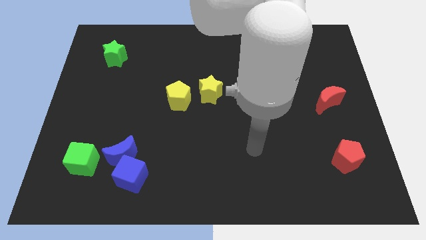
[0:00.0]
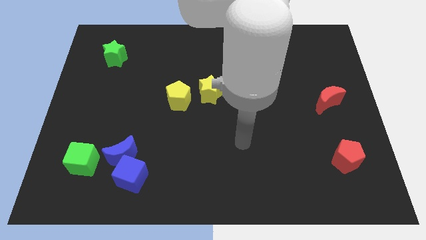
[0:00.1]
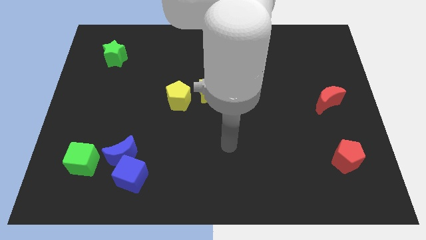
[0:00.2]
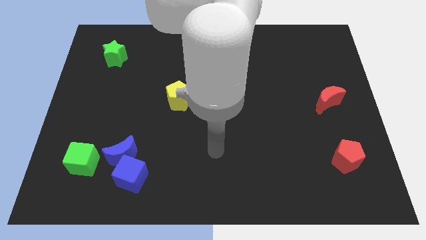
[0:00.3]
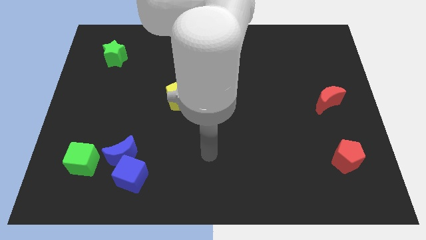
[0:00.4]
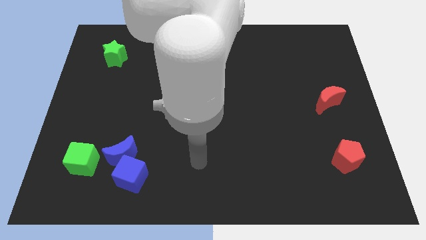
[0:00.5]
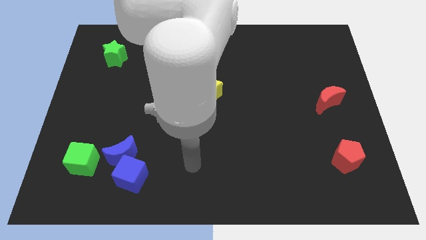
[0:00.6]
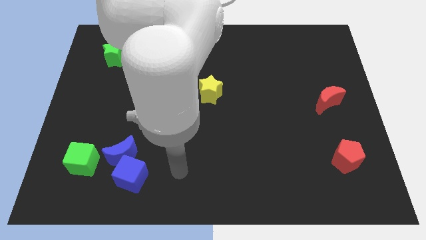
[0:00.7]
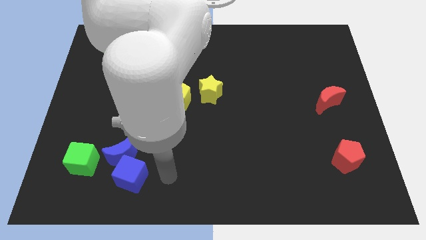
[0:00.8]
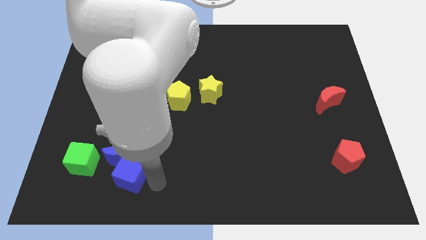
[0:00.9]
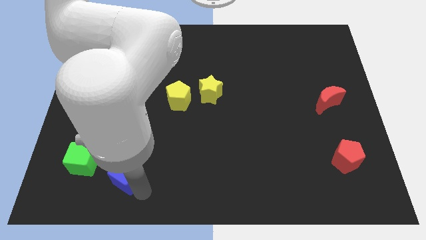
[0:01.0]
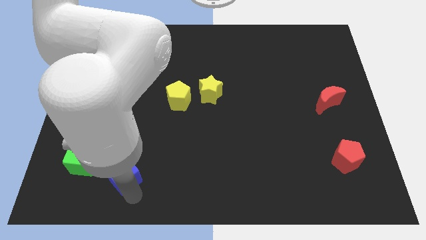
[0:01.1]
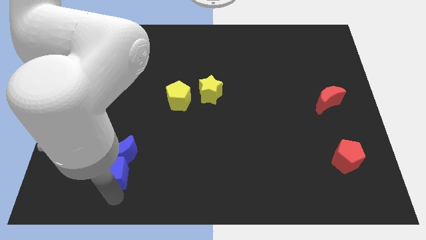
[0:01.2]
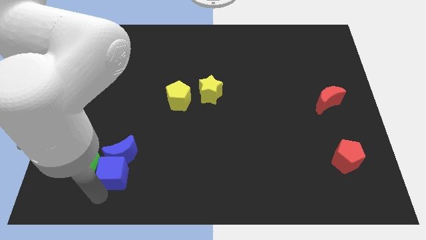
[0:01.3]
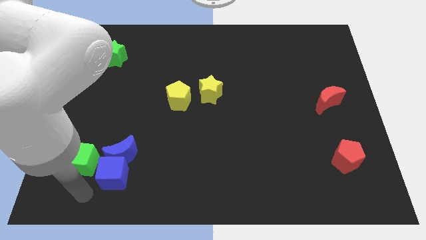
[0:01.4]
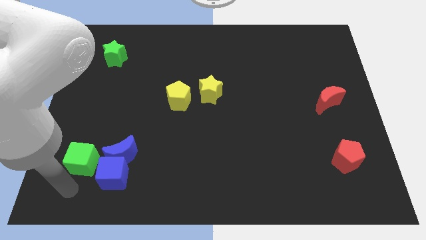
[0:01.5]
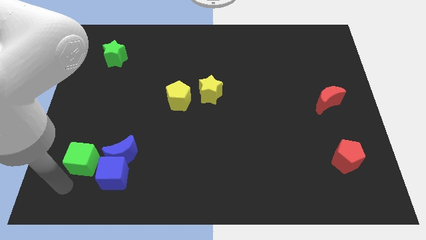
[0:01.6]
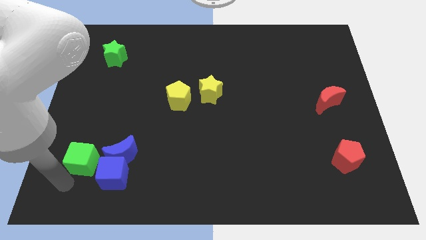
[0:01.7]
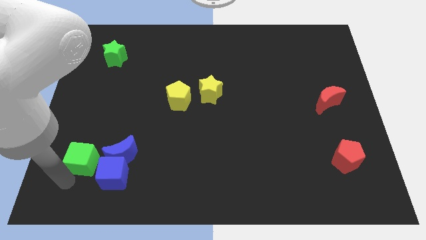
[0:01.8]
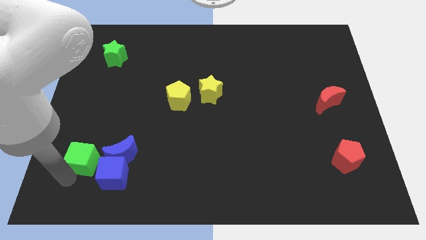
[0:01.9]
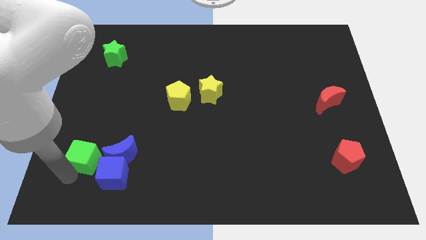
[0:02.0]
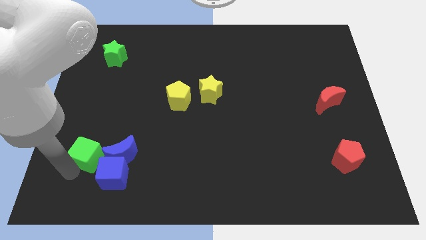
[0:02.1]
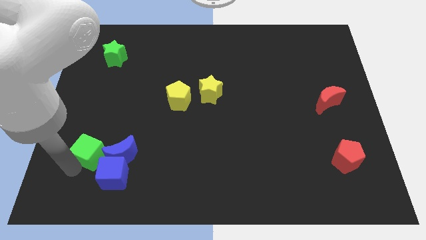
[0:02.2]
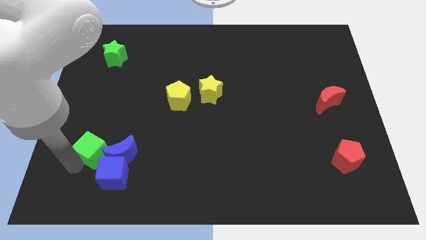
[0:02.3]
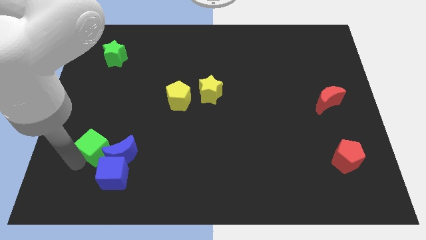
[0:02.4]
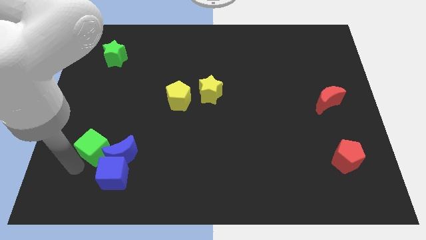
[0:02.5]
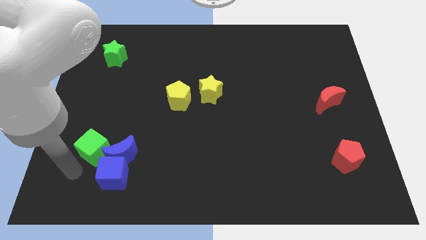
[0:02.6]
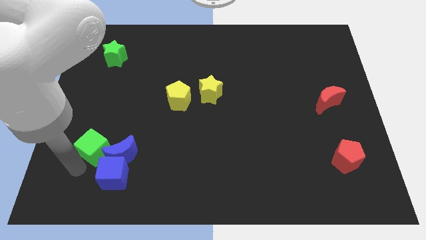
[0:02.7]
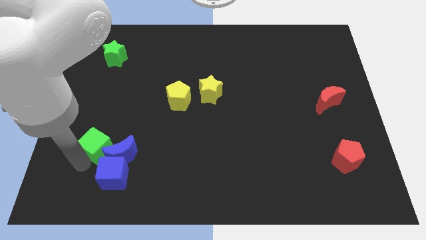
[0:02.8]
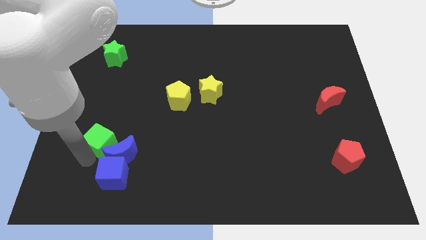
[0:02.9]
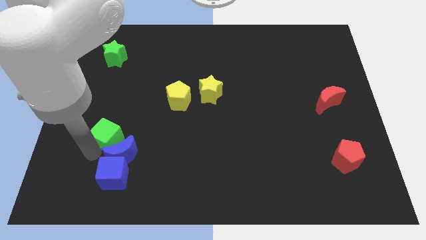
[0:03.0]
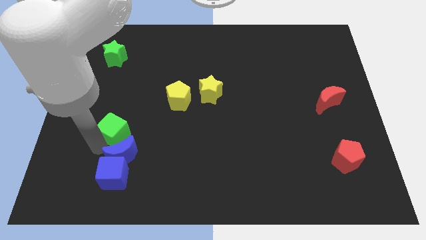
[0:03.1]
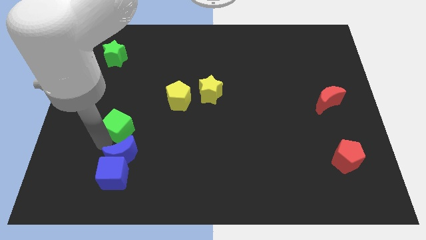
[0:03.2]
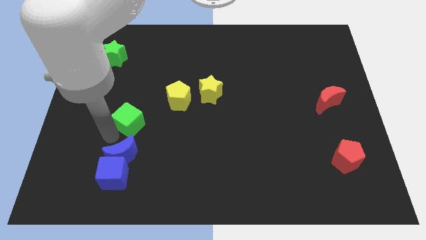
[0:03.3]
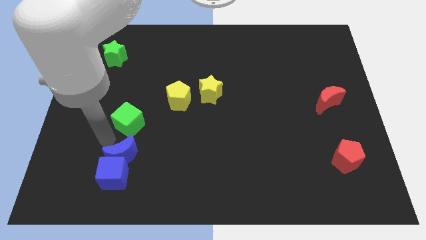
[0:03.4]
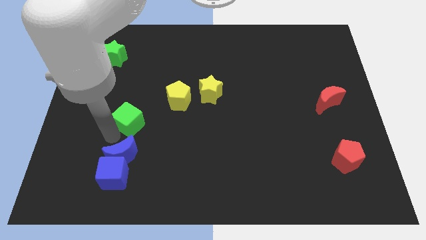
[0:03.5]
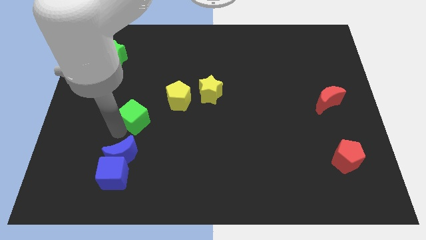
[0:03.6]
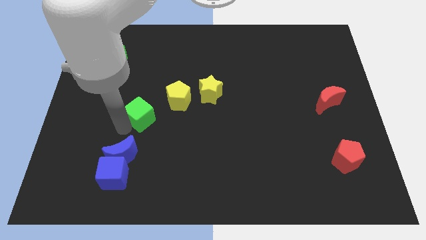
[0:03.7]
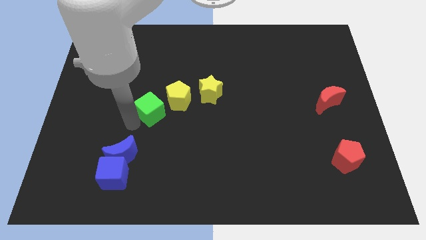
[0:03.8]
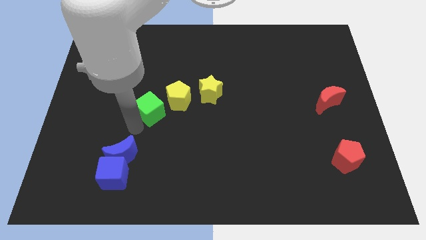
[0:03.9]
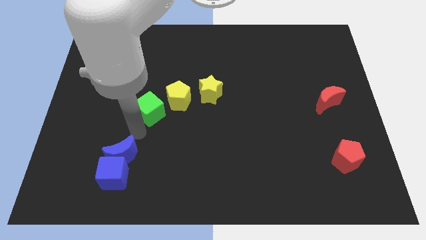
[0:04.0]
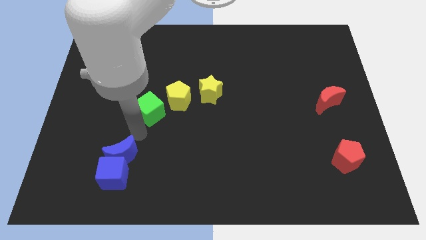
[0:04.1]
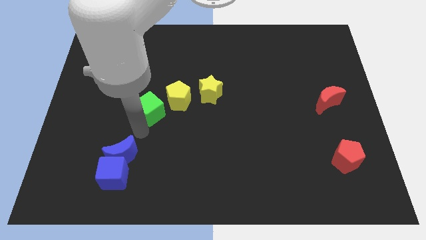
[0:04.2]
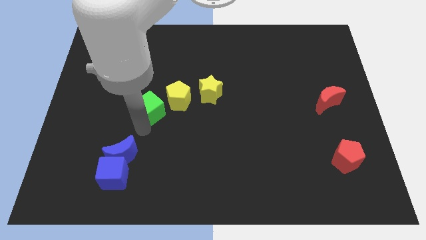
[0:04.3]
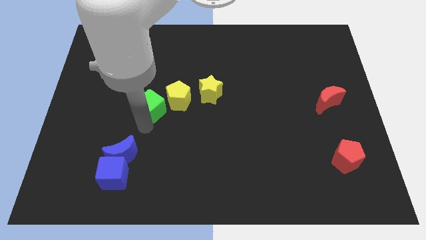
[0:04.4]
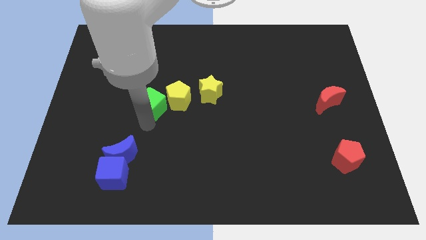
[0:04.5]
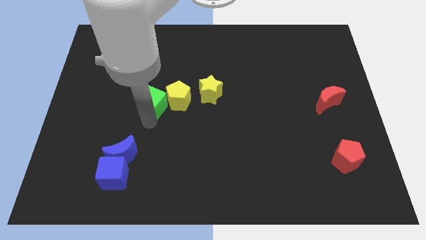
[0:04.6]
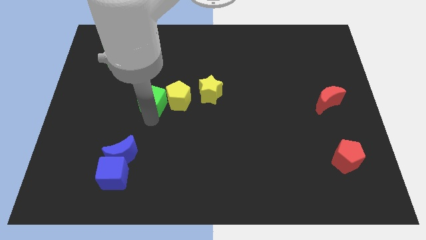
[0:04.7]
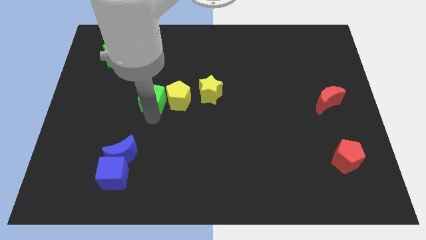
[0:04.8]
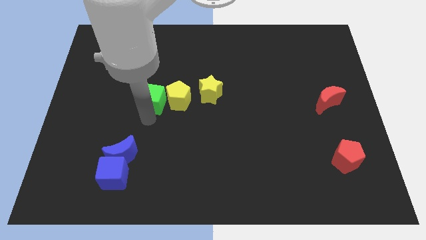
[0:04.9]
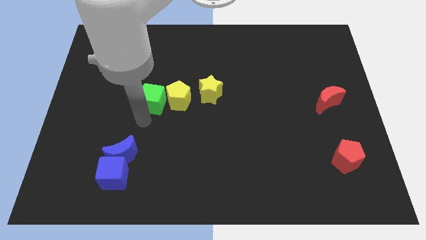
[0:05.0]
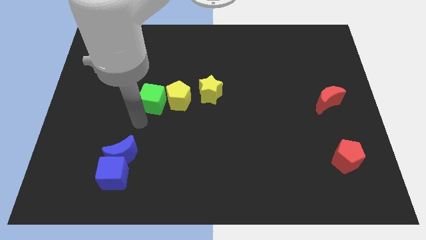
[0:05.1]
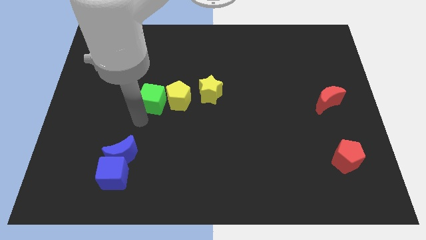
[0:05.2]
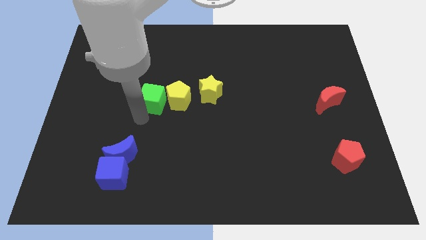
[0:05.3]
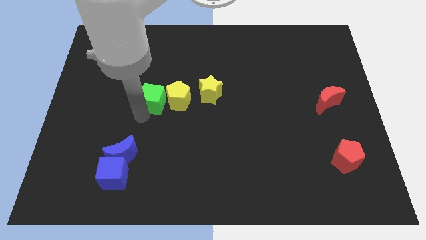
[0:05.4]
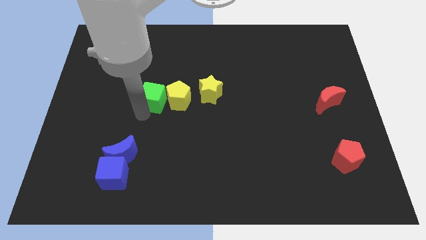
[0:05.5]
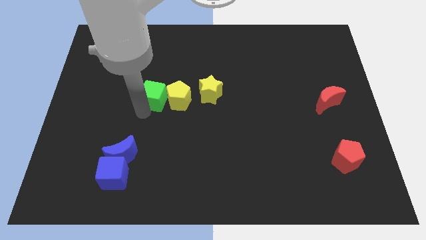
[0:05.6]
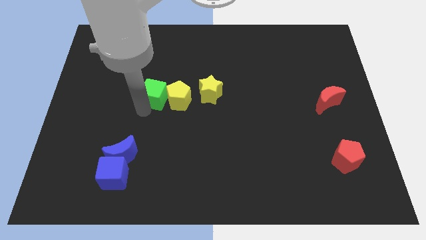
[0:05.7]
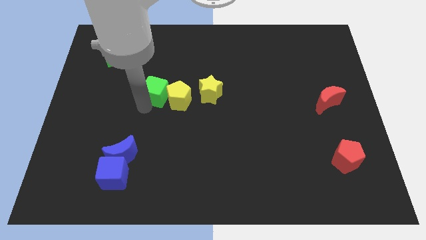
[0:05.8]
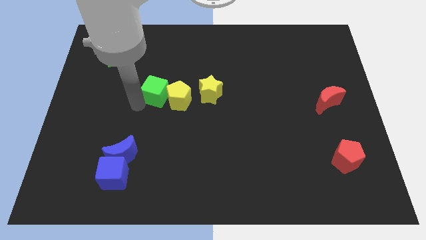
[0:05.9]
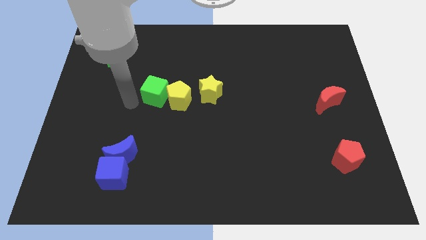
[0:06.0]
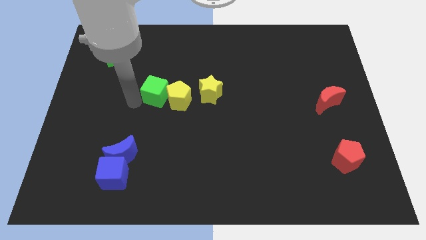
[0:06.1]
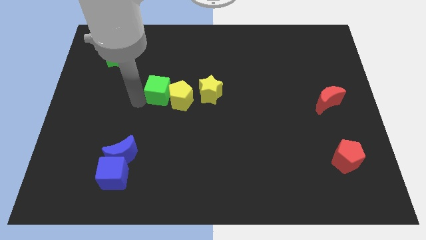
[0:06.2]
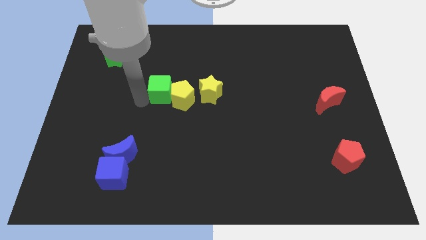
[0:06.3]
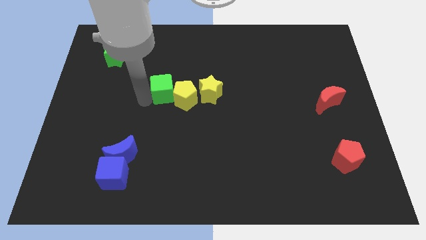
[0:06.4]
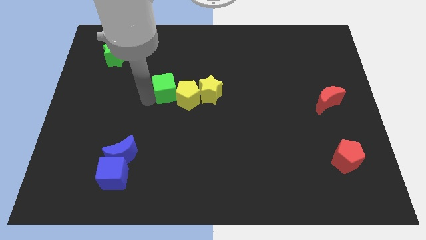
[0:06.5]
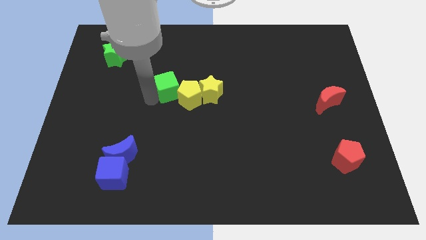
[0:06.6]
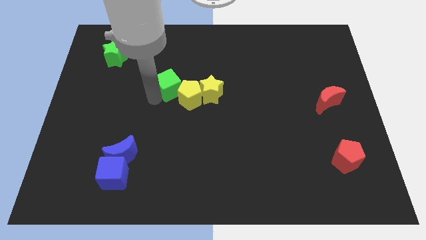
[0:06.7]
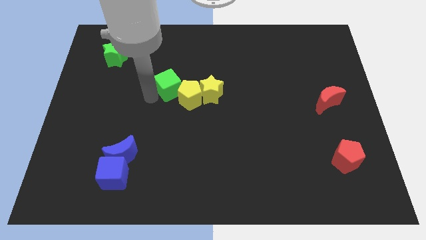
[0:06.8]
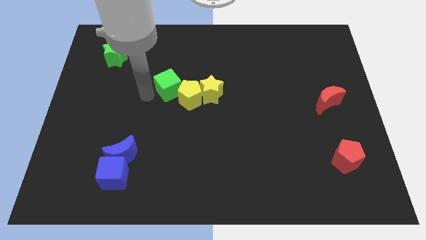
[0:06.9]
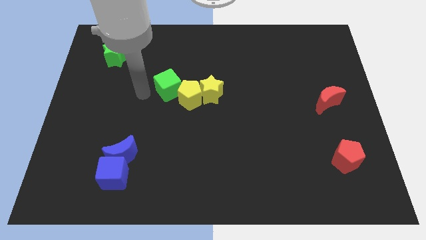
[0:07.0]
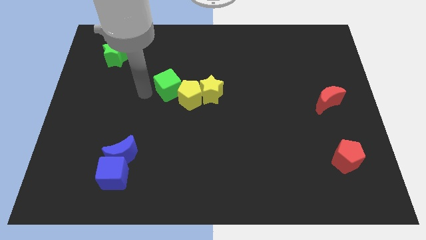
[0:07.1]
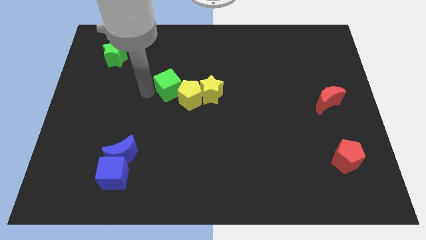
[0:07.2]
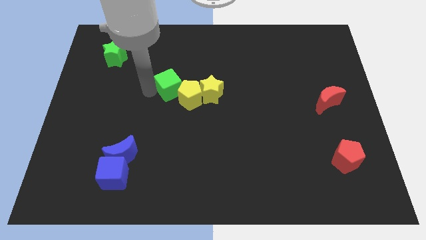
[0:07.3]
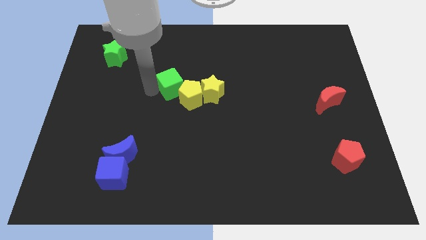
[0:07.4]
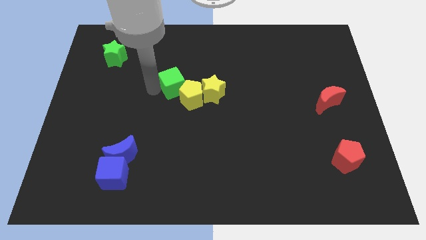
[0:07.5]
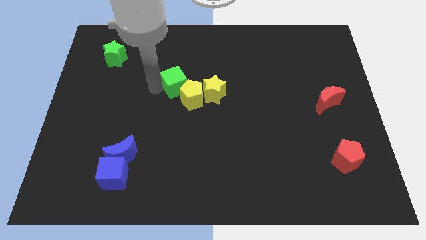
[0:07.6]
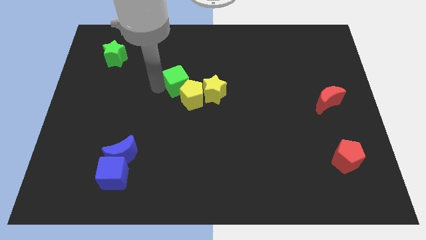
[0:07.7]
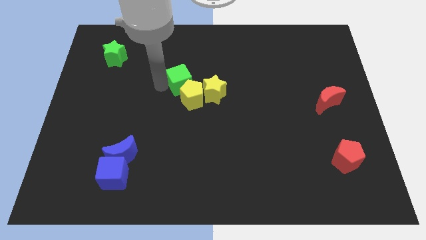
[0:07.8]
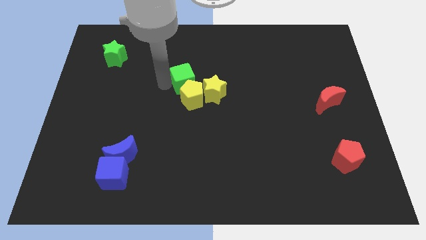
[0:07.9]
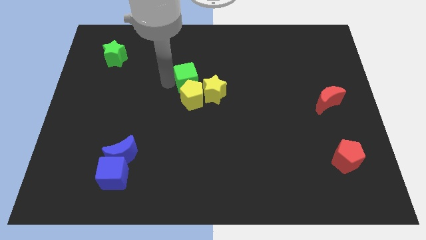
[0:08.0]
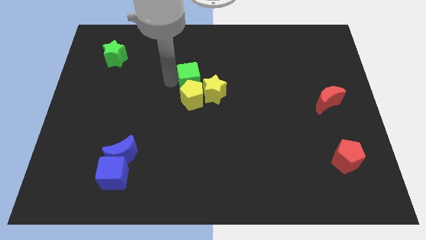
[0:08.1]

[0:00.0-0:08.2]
push the green cube diagonally up and to the right of the yellow pentagon
